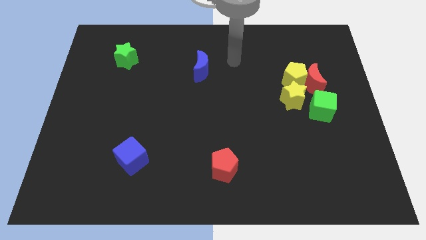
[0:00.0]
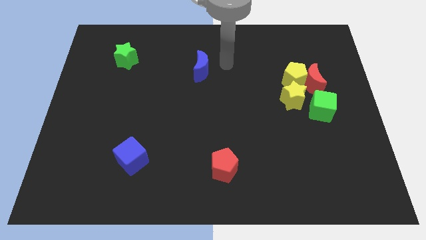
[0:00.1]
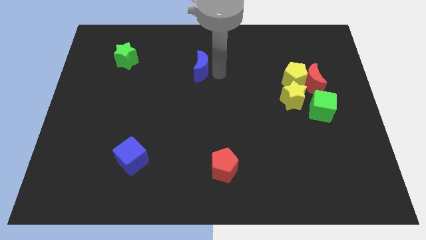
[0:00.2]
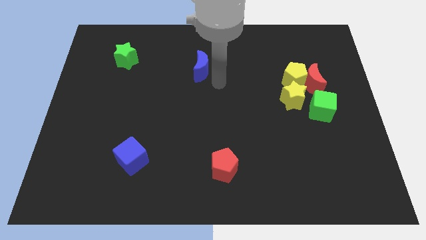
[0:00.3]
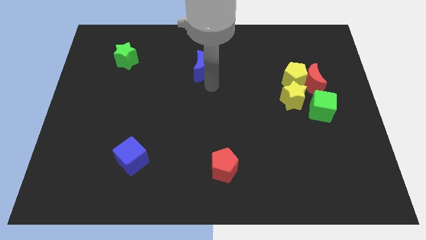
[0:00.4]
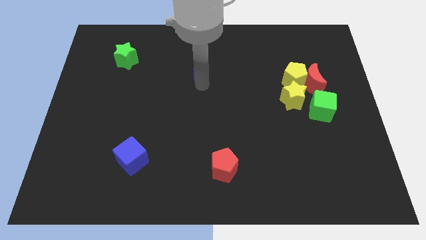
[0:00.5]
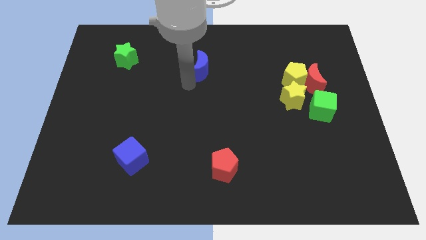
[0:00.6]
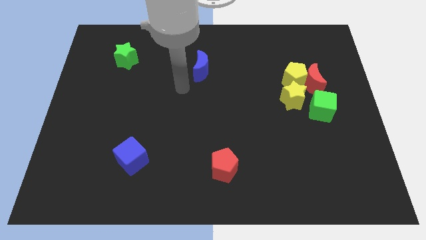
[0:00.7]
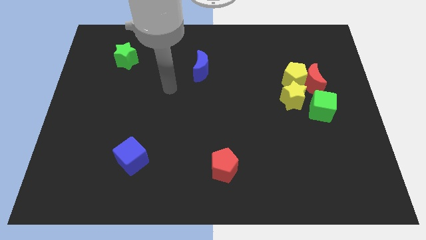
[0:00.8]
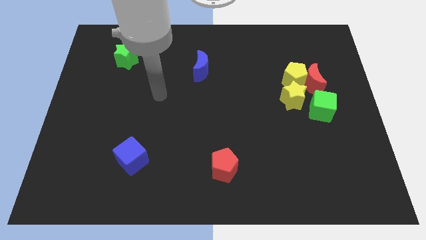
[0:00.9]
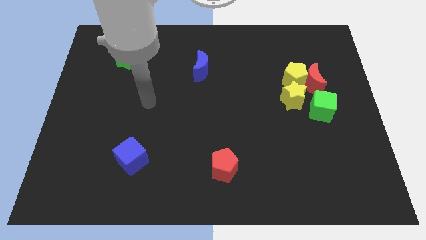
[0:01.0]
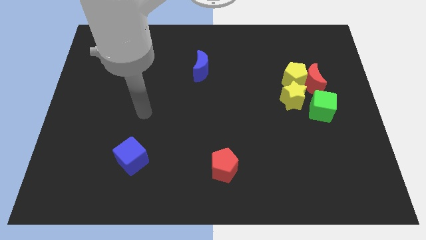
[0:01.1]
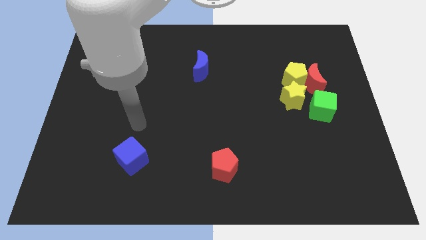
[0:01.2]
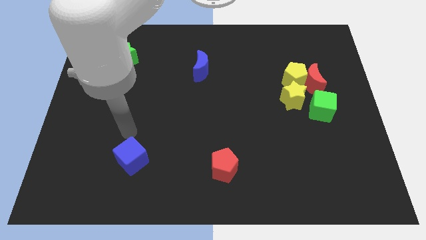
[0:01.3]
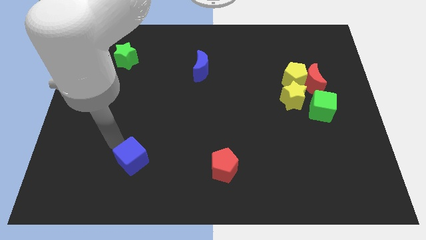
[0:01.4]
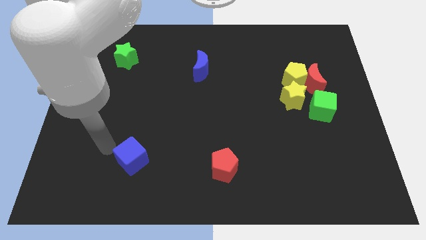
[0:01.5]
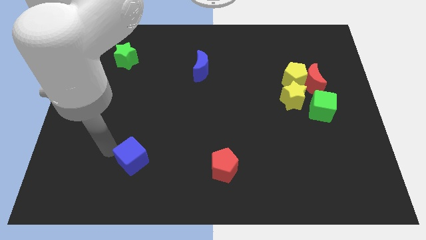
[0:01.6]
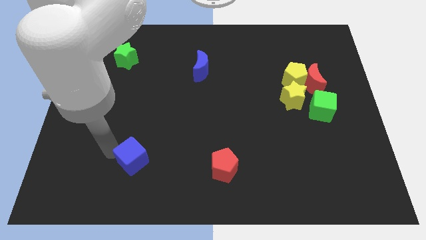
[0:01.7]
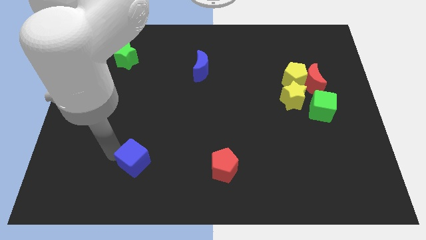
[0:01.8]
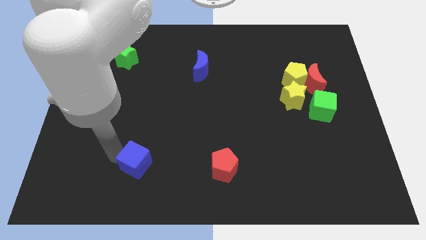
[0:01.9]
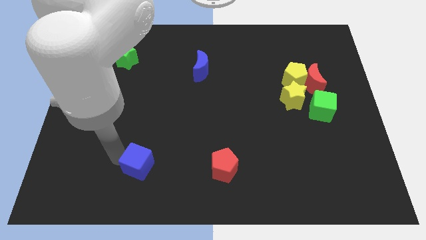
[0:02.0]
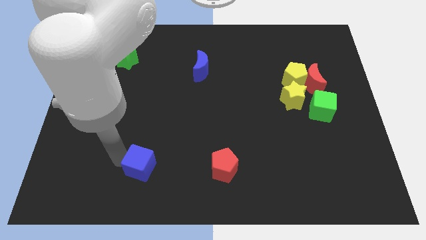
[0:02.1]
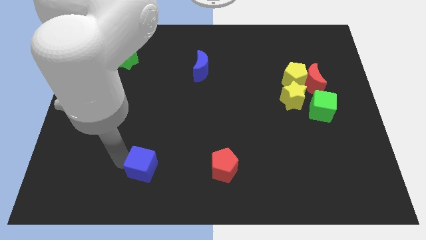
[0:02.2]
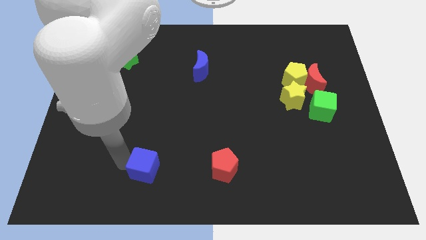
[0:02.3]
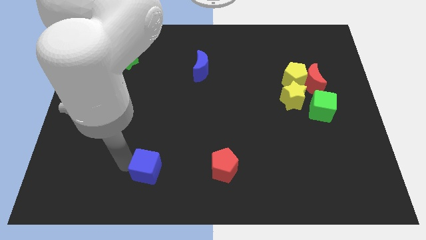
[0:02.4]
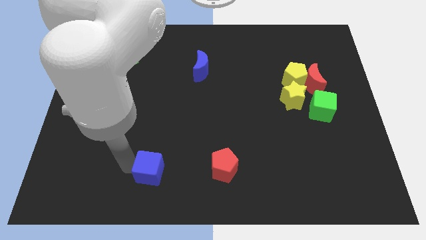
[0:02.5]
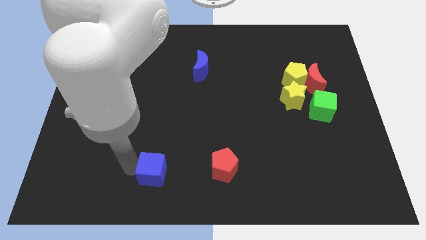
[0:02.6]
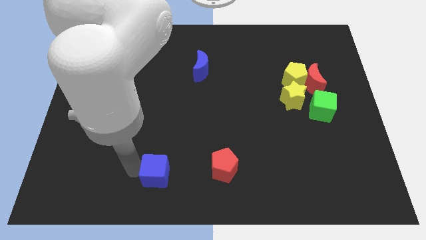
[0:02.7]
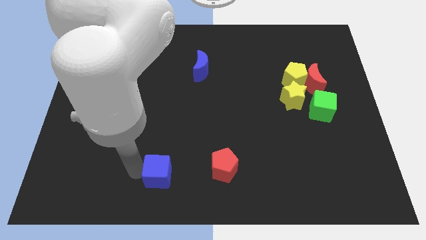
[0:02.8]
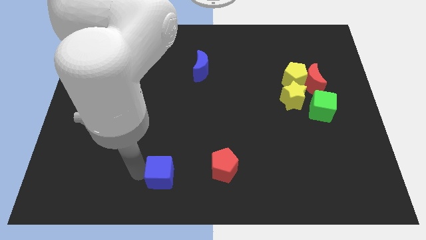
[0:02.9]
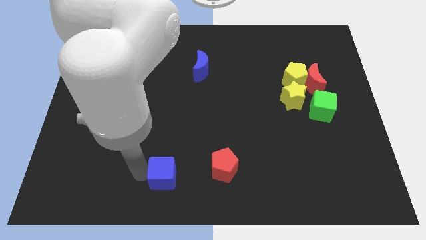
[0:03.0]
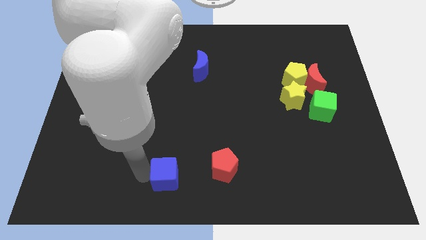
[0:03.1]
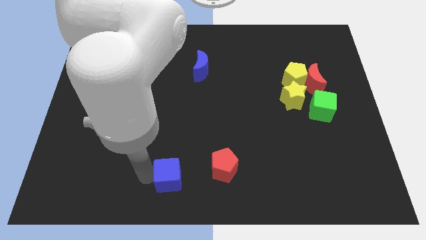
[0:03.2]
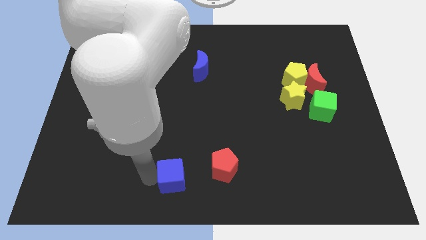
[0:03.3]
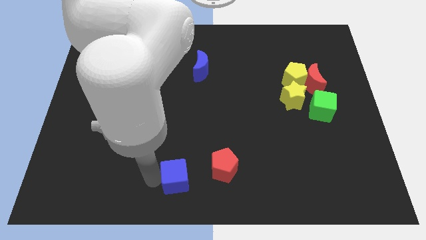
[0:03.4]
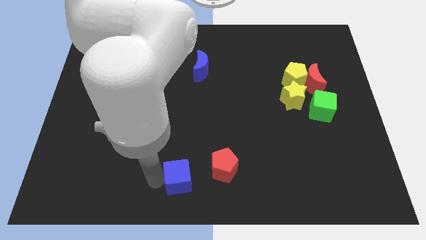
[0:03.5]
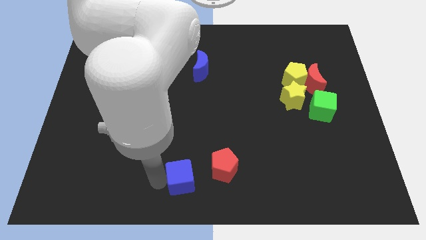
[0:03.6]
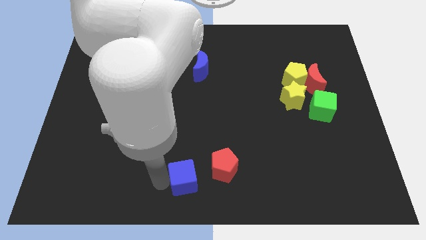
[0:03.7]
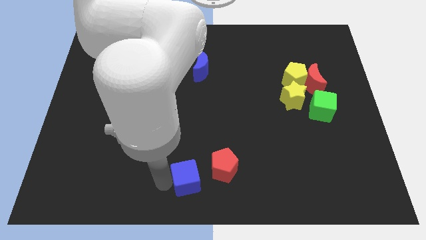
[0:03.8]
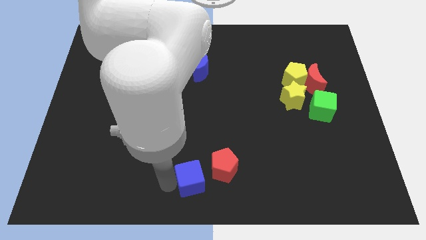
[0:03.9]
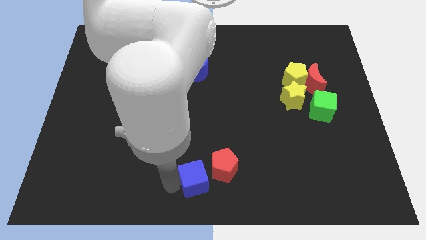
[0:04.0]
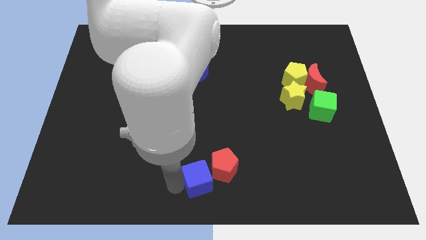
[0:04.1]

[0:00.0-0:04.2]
move the blue cube towards the red pentagon

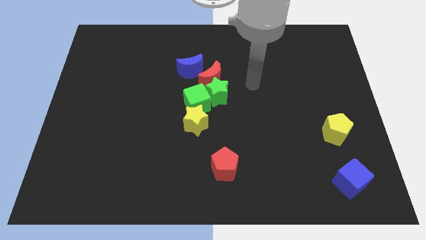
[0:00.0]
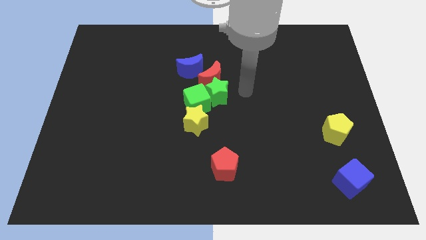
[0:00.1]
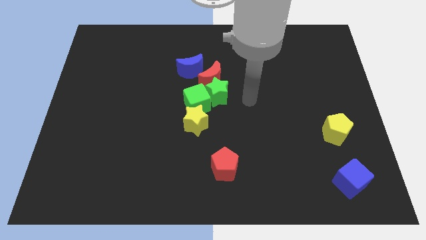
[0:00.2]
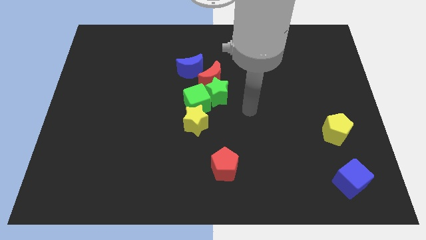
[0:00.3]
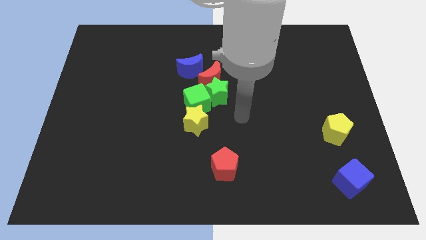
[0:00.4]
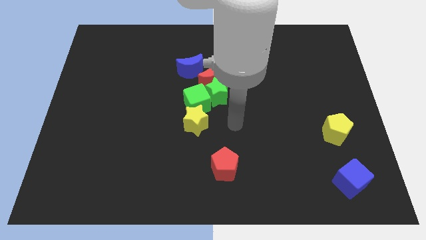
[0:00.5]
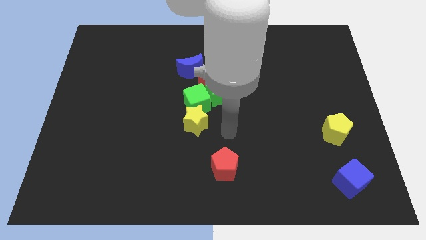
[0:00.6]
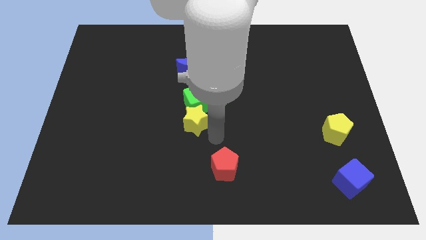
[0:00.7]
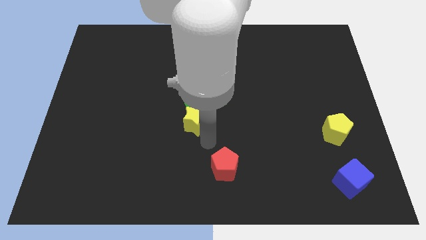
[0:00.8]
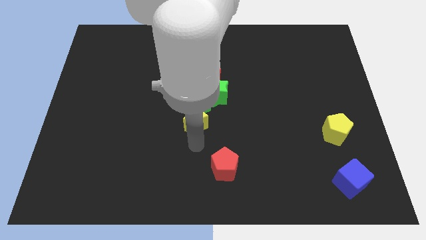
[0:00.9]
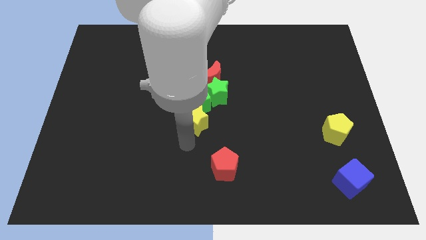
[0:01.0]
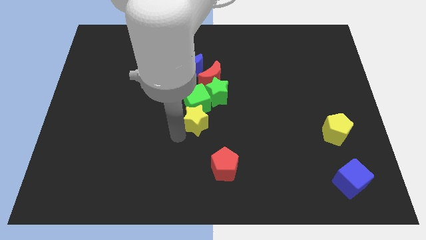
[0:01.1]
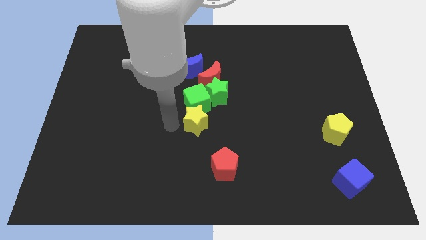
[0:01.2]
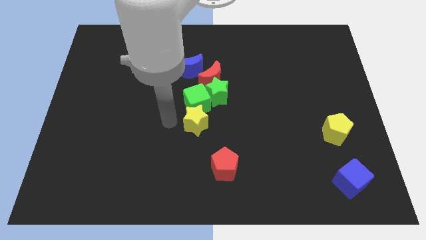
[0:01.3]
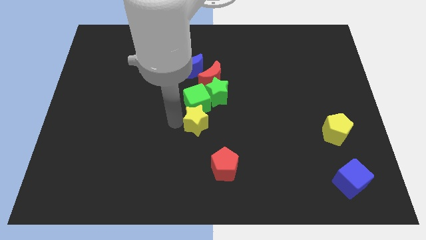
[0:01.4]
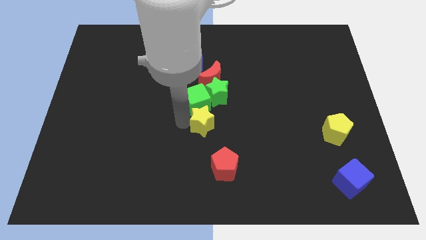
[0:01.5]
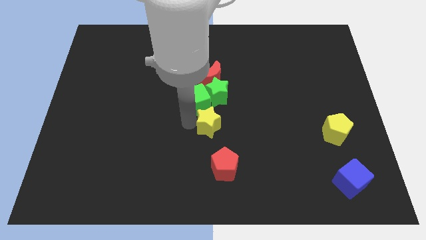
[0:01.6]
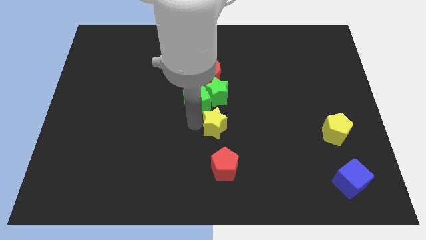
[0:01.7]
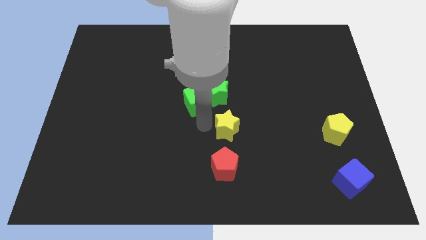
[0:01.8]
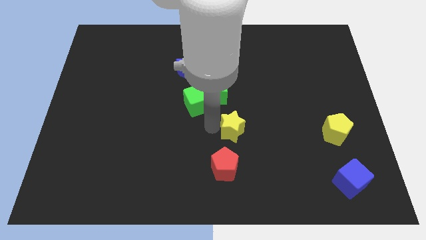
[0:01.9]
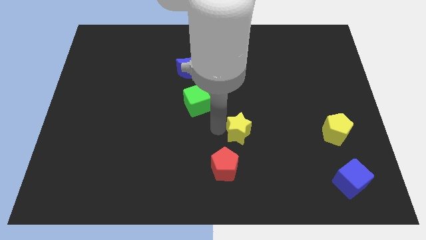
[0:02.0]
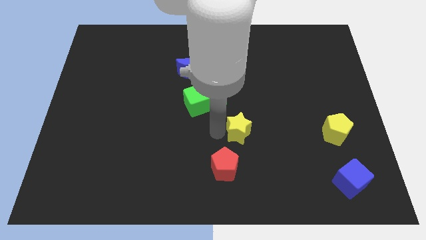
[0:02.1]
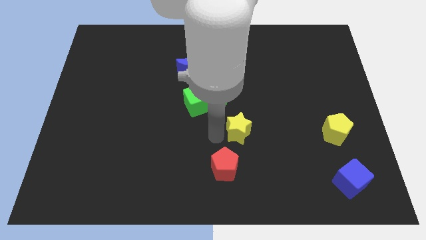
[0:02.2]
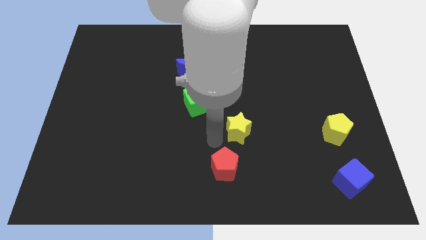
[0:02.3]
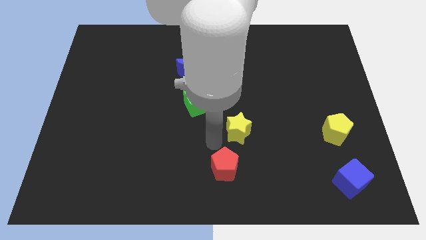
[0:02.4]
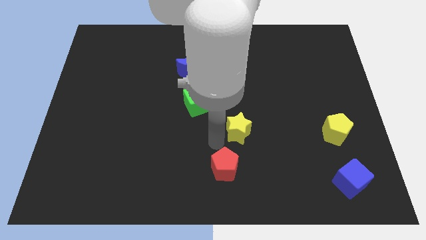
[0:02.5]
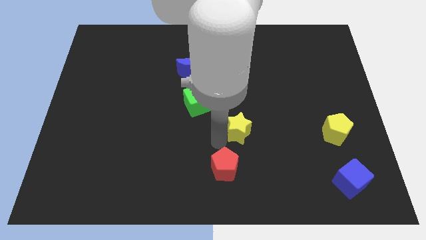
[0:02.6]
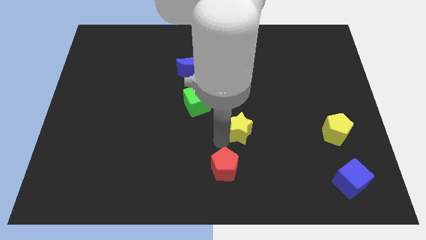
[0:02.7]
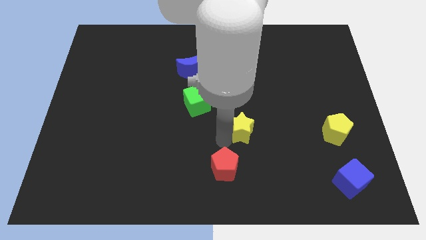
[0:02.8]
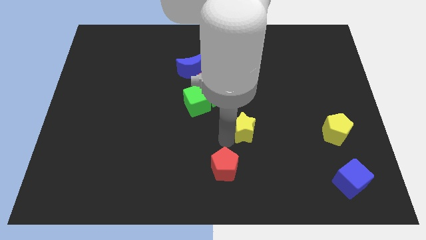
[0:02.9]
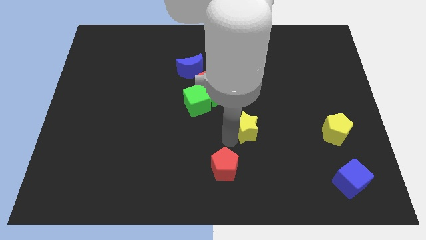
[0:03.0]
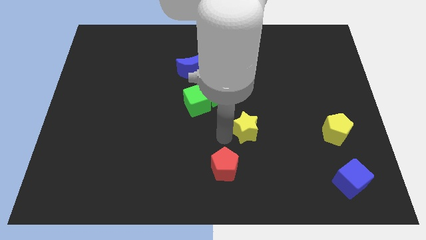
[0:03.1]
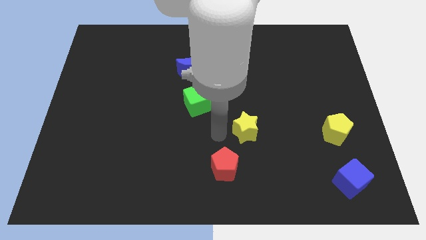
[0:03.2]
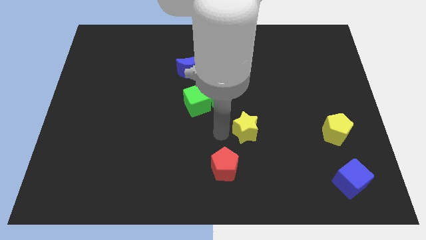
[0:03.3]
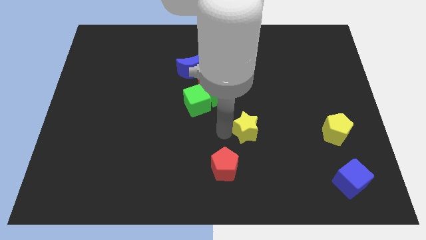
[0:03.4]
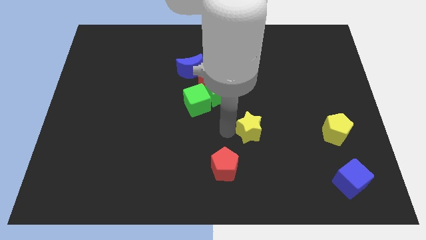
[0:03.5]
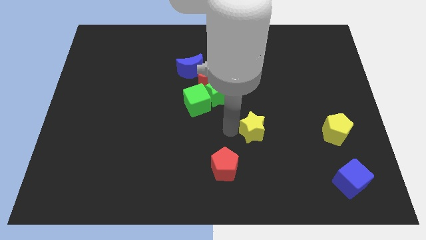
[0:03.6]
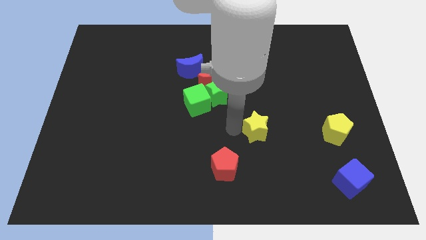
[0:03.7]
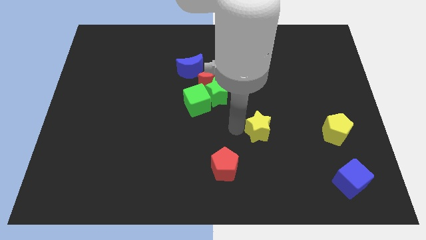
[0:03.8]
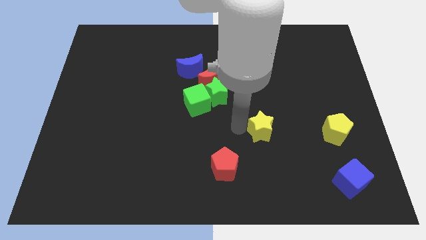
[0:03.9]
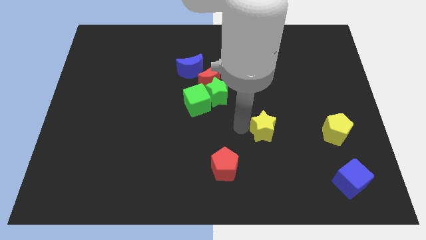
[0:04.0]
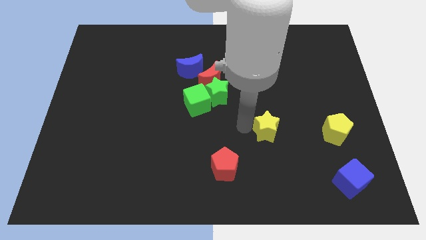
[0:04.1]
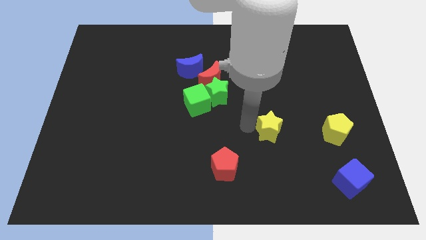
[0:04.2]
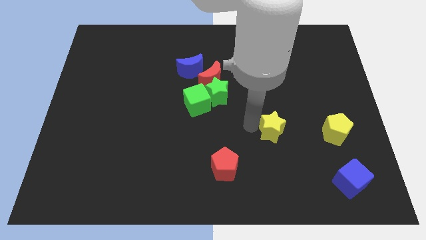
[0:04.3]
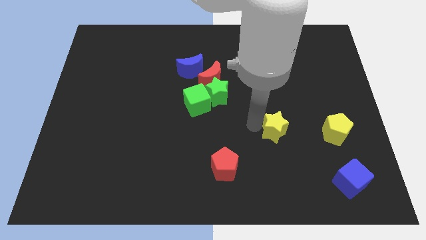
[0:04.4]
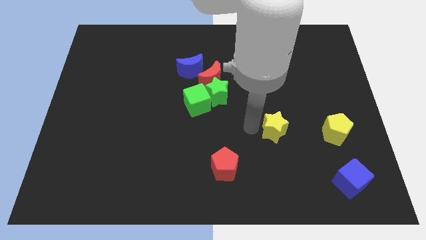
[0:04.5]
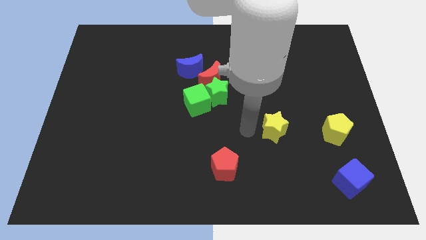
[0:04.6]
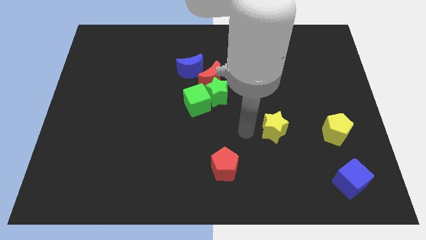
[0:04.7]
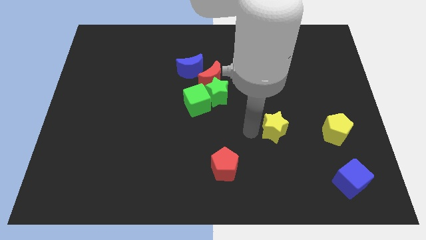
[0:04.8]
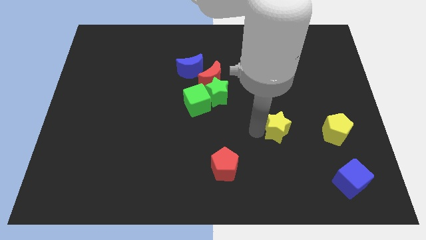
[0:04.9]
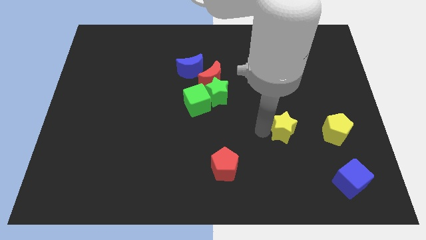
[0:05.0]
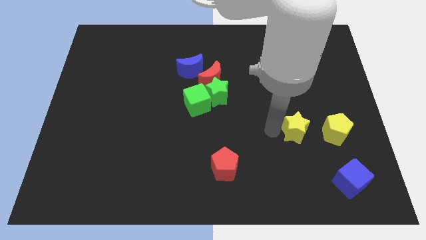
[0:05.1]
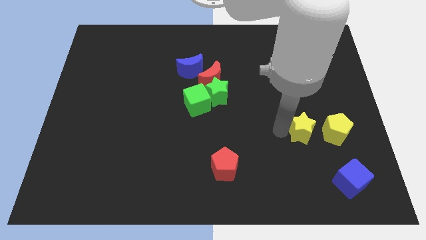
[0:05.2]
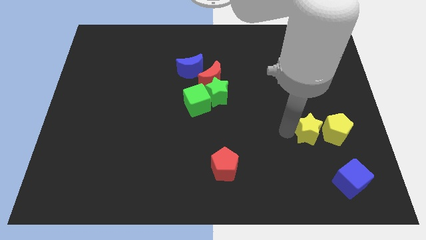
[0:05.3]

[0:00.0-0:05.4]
put the yellow star towards the yellow pentagon
